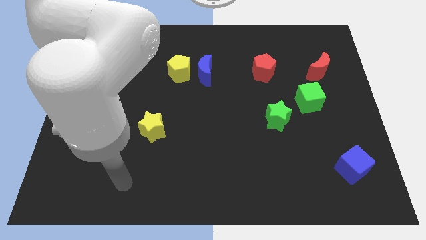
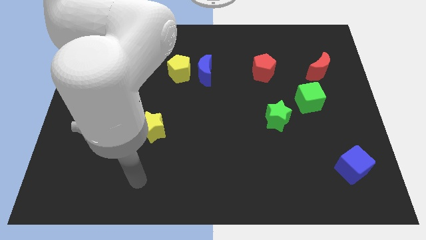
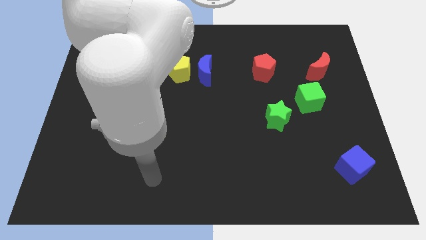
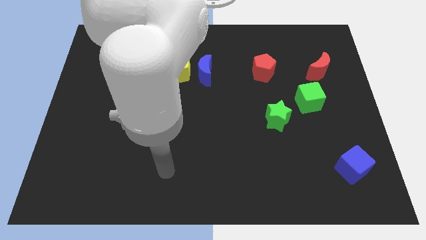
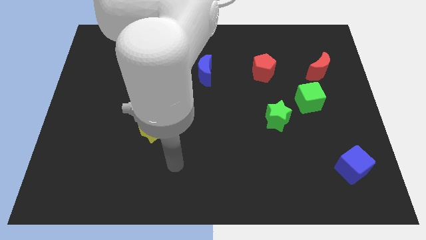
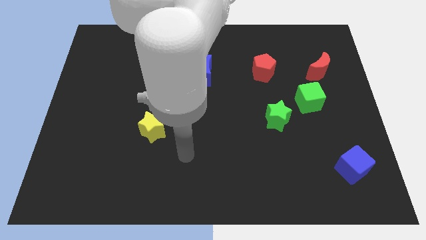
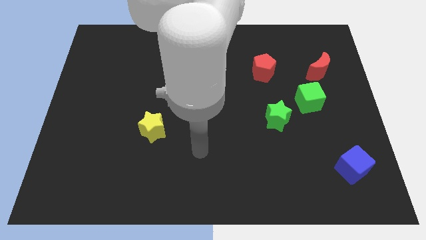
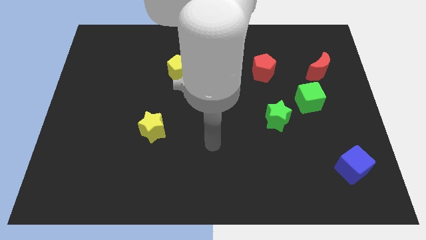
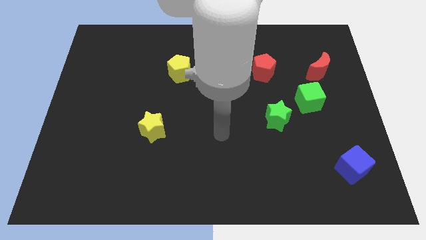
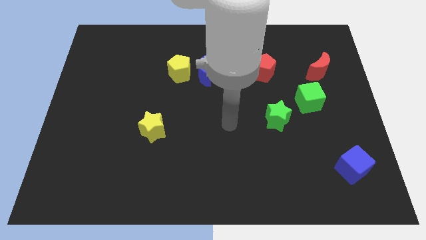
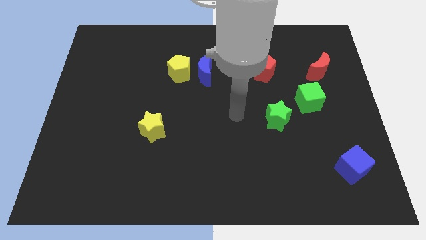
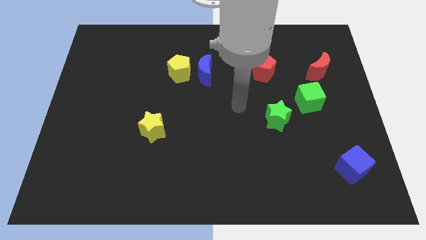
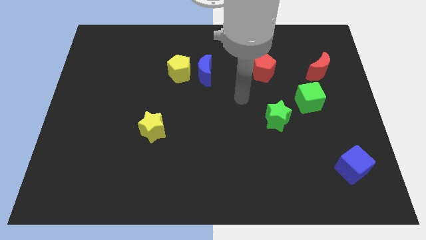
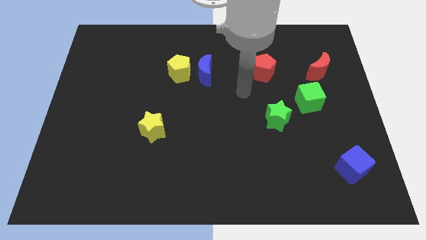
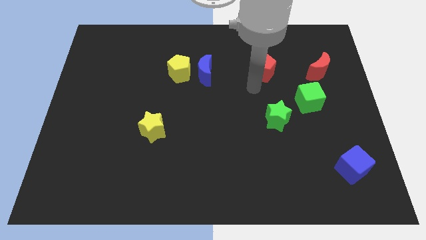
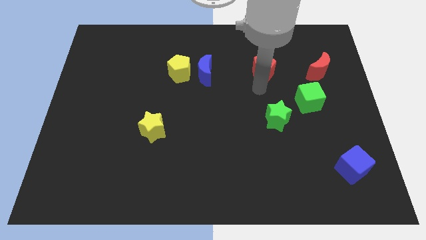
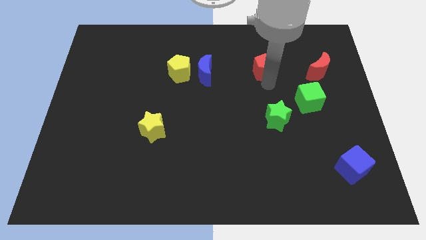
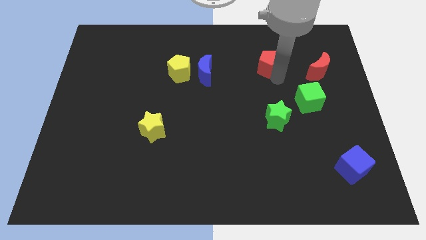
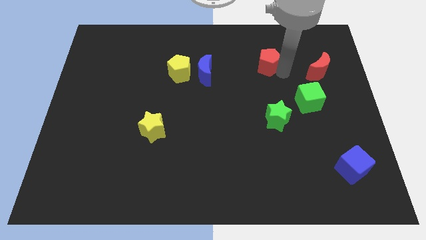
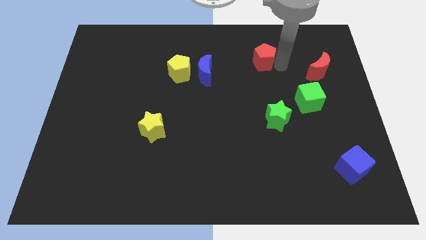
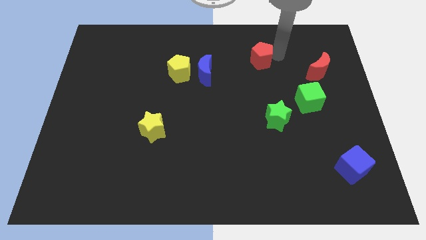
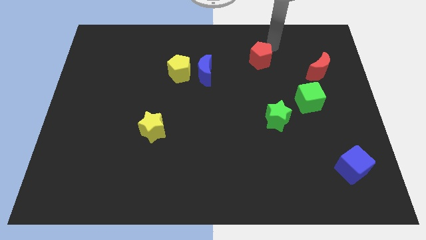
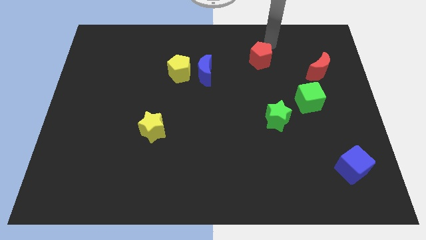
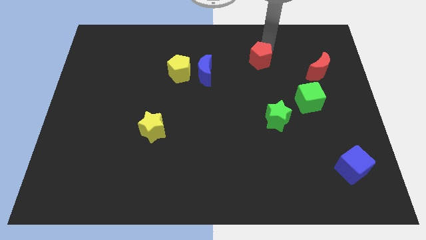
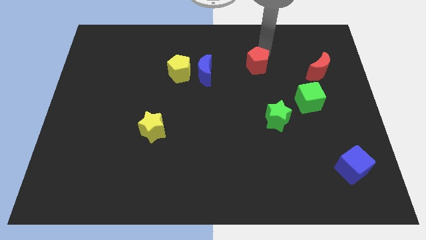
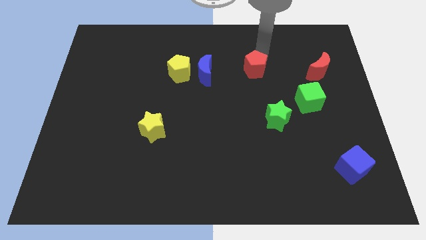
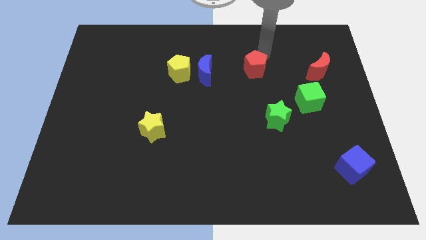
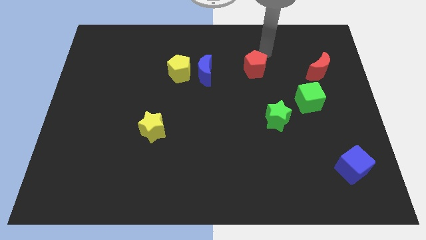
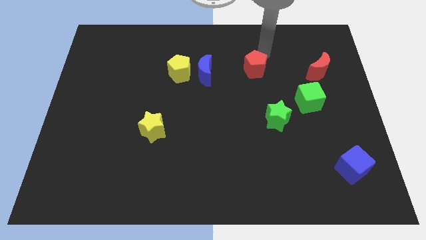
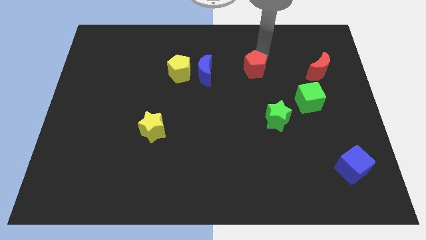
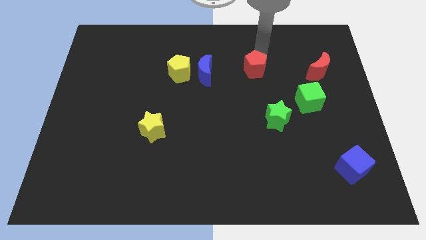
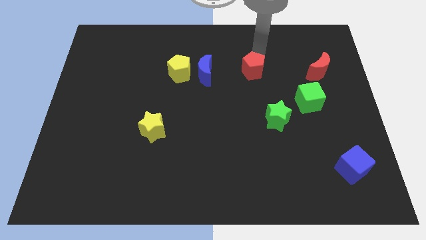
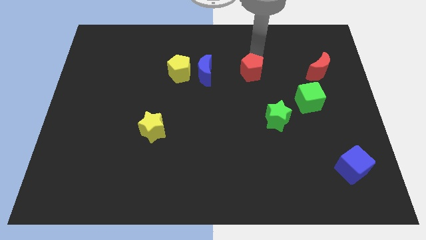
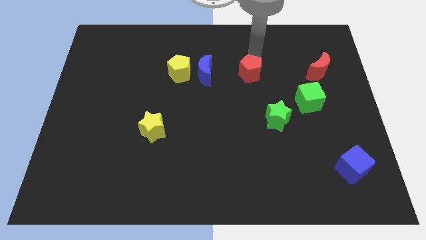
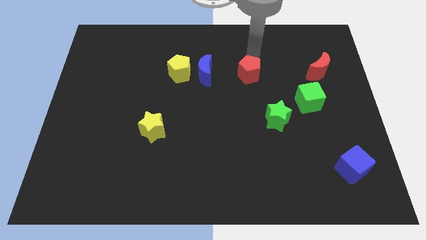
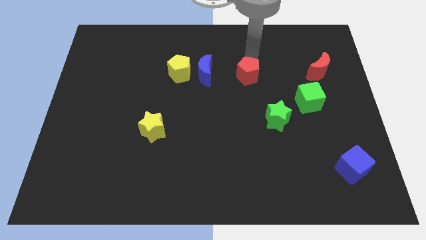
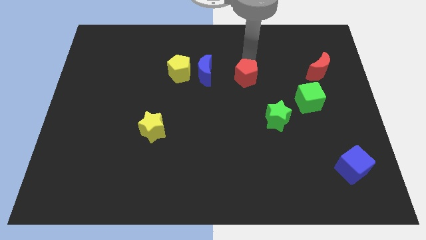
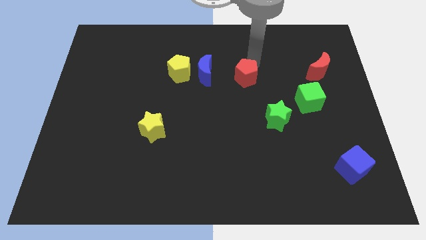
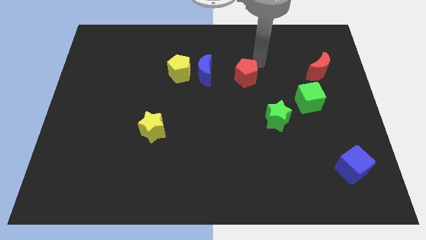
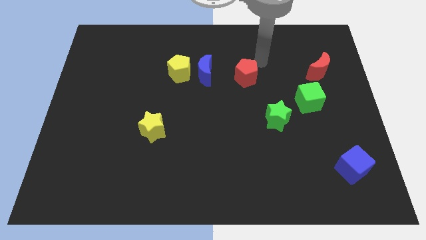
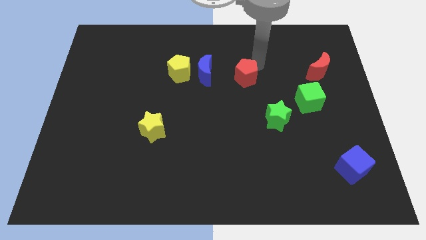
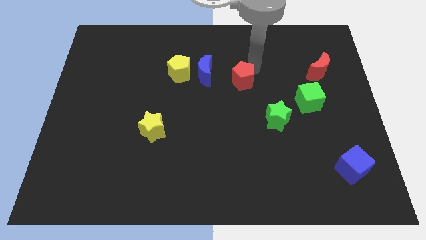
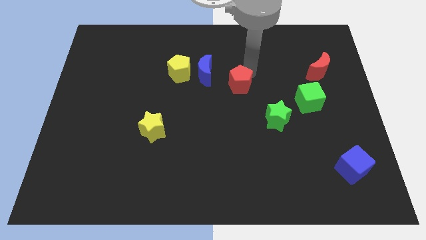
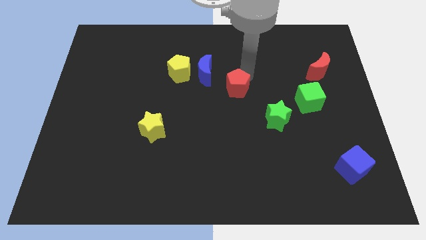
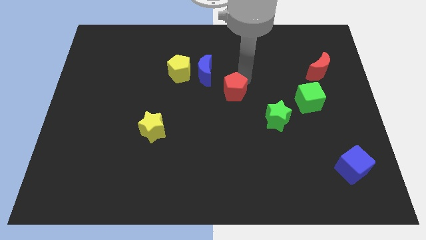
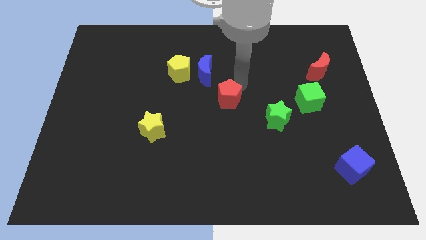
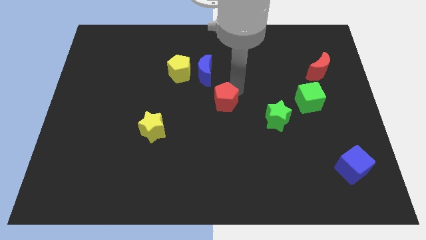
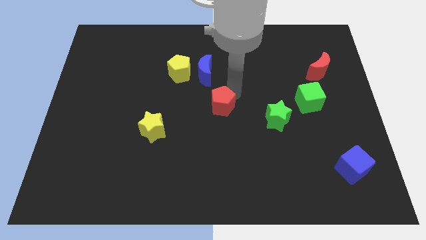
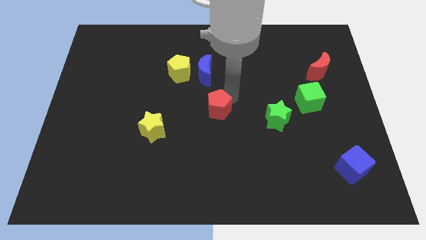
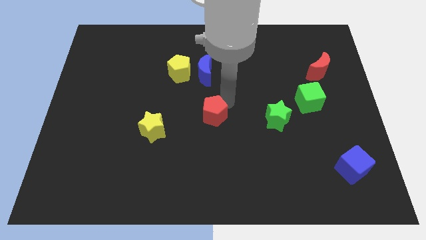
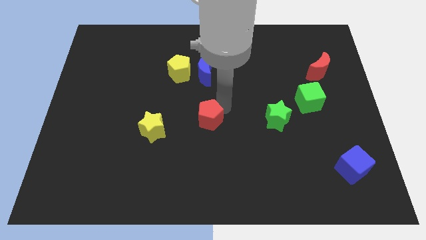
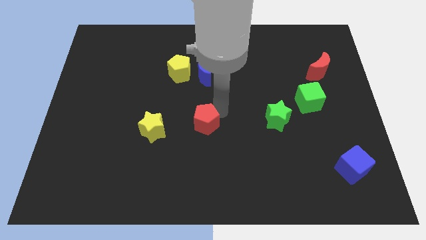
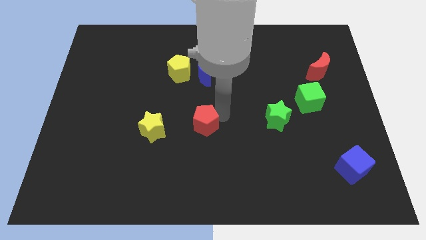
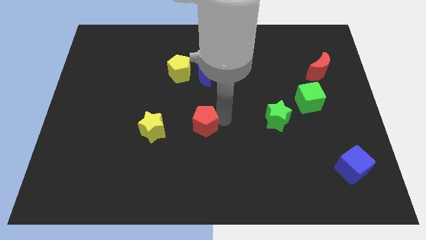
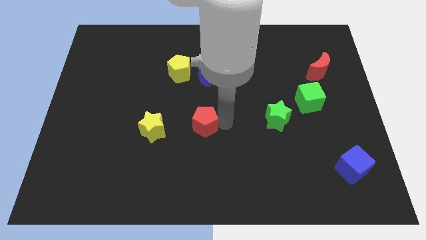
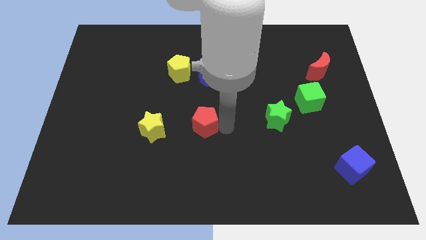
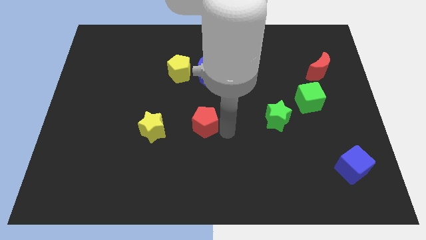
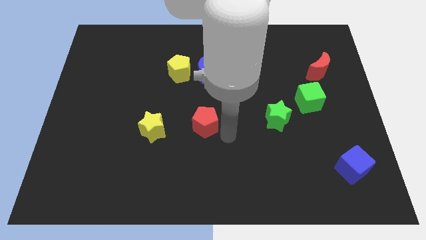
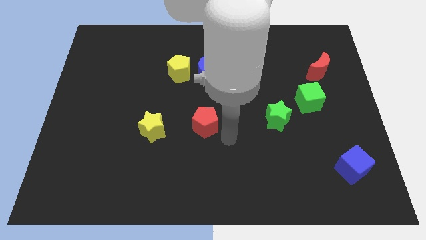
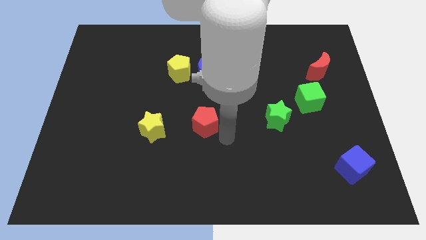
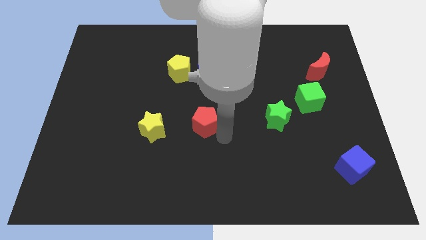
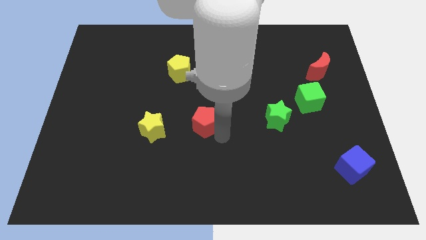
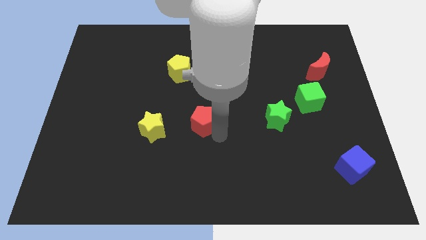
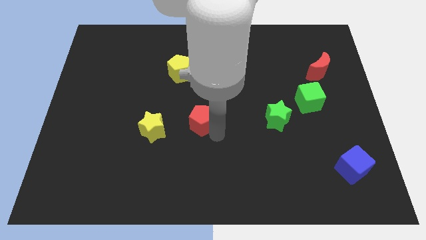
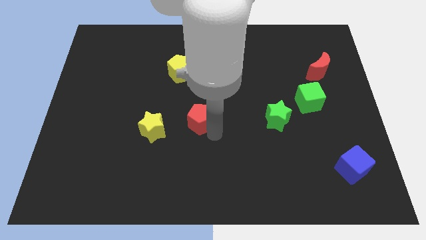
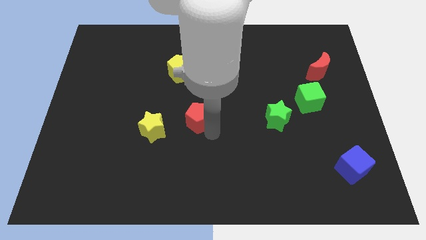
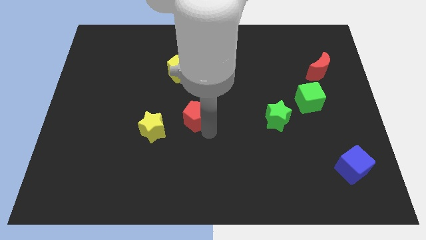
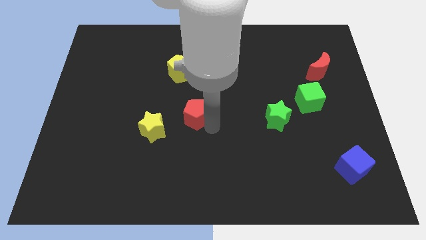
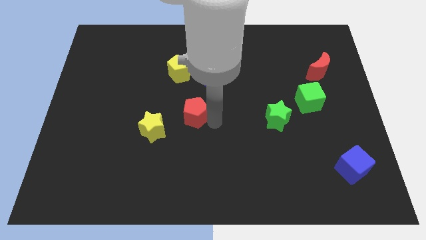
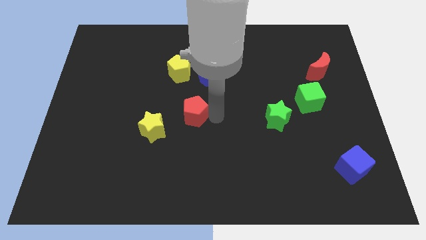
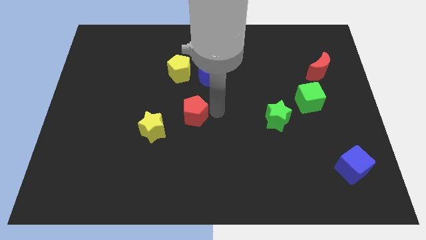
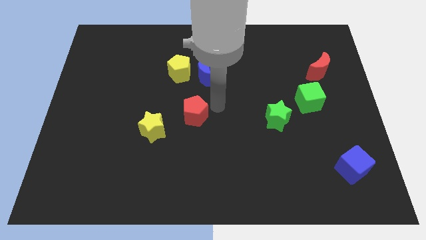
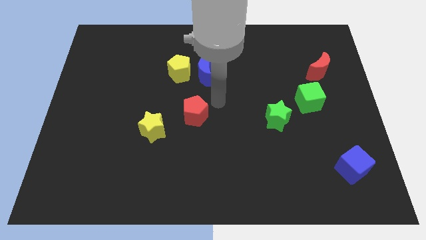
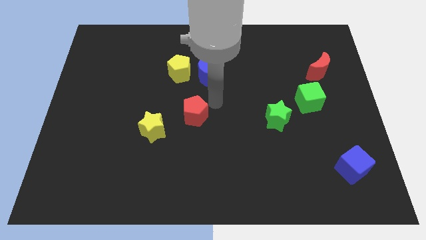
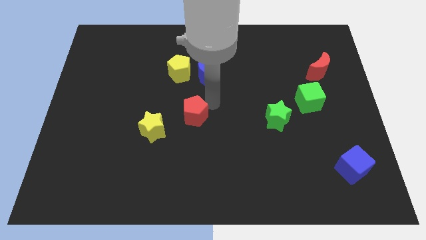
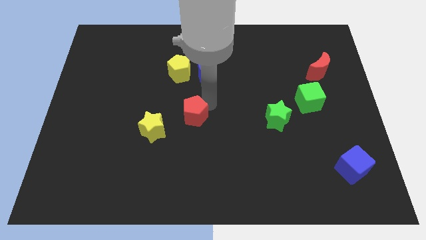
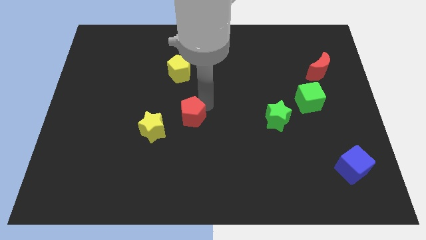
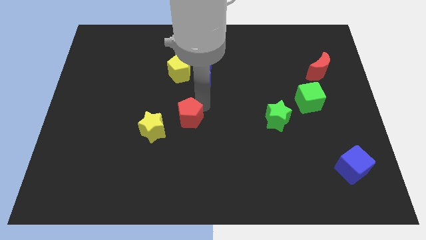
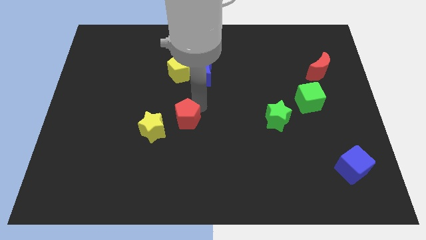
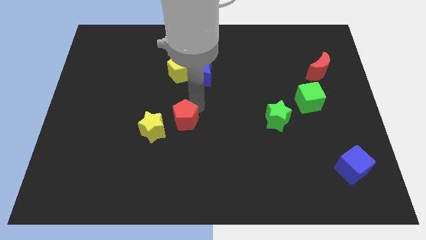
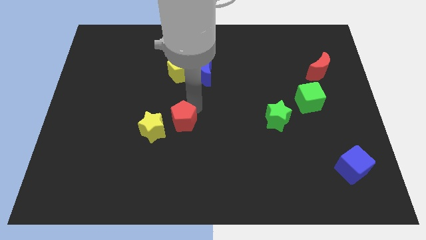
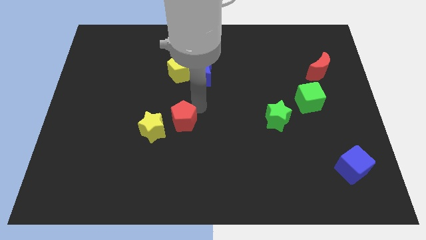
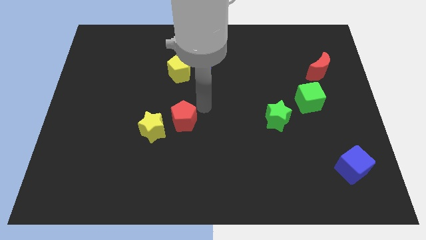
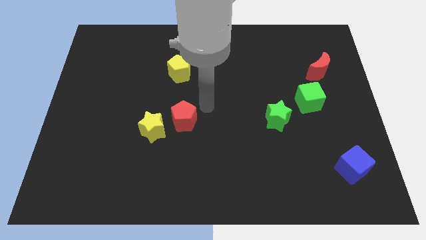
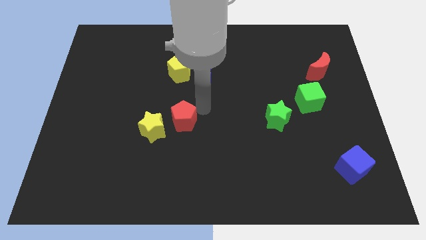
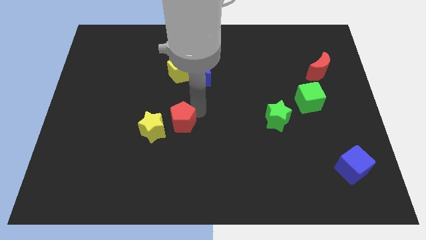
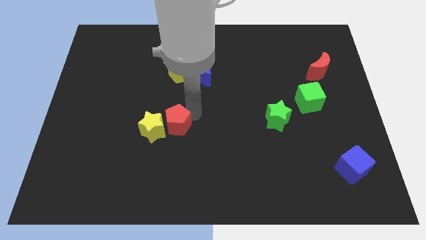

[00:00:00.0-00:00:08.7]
put the red pentagon next to the yellow star
